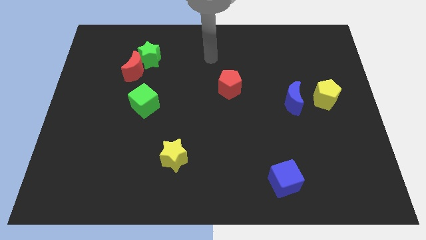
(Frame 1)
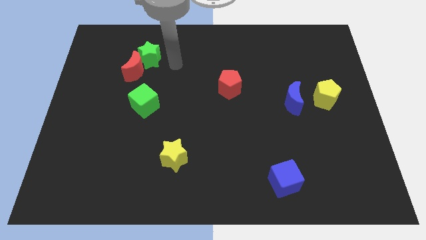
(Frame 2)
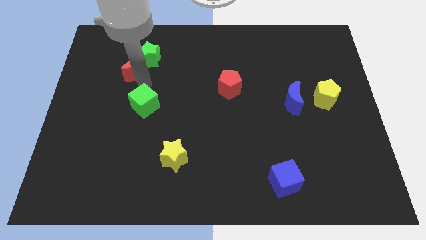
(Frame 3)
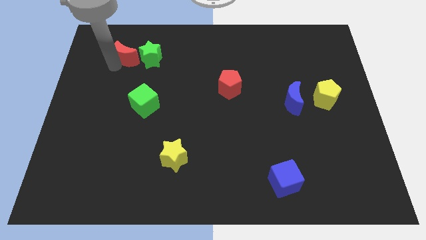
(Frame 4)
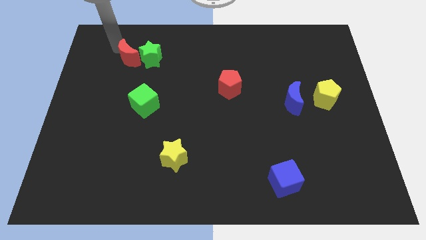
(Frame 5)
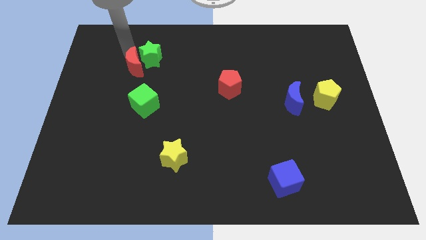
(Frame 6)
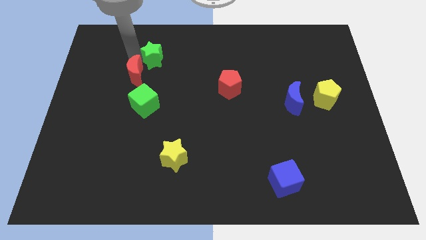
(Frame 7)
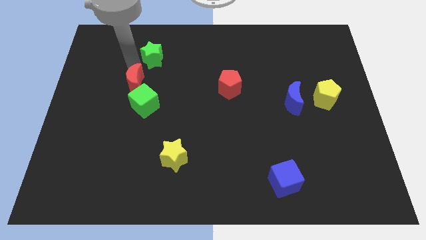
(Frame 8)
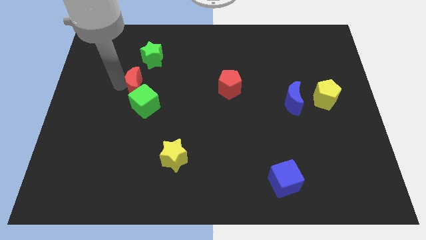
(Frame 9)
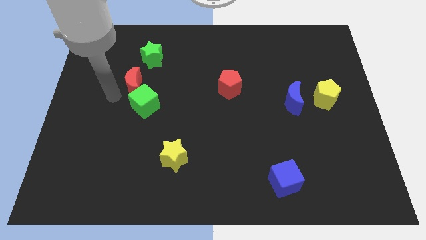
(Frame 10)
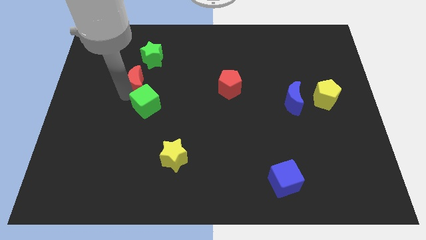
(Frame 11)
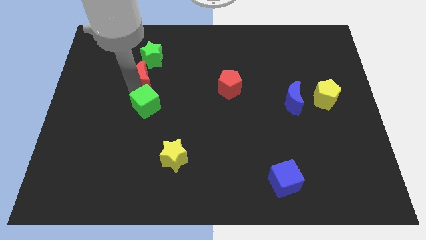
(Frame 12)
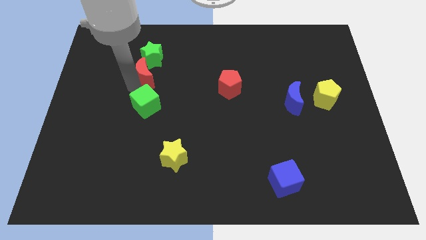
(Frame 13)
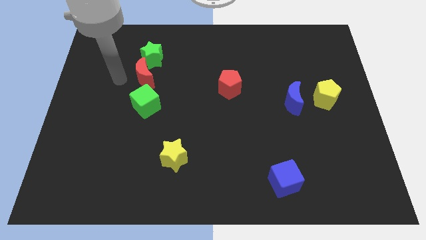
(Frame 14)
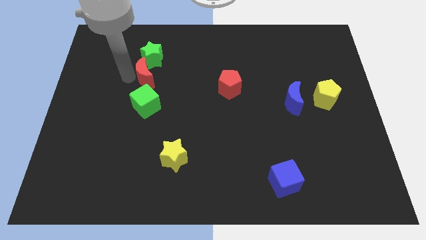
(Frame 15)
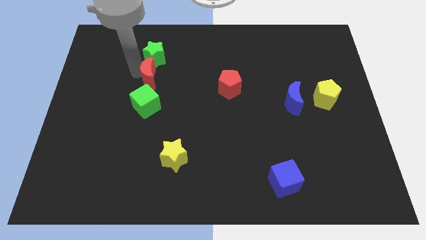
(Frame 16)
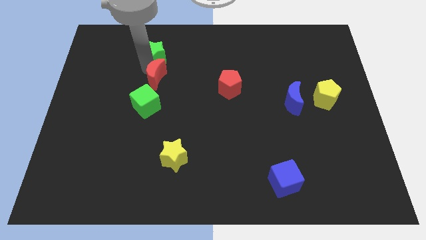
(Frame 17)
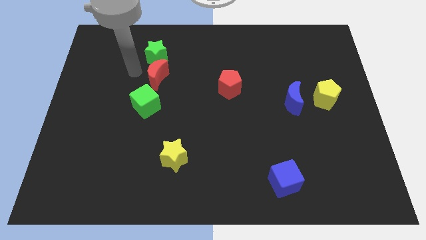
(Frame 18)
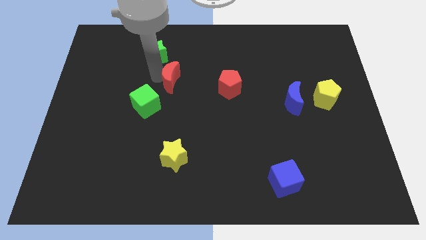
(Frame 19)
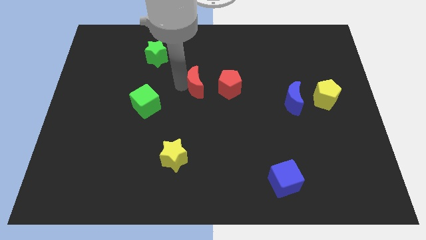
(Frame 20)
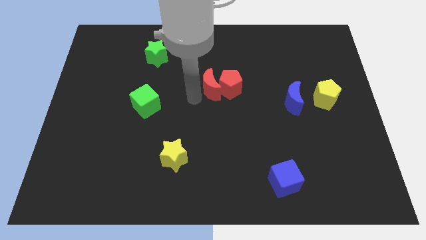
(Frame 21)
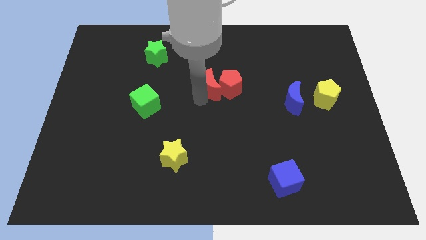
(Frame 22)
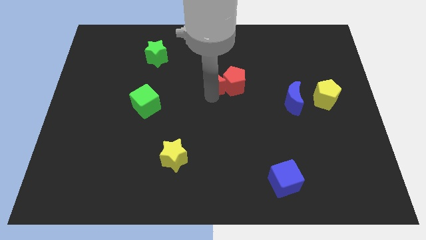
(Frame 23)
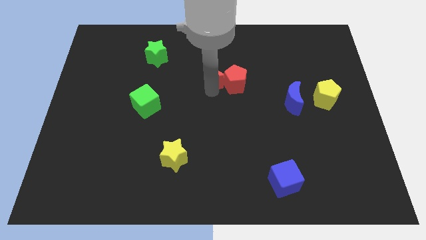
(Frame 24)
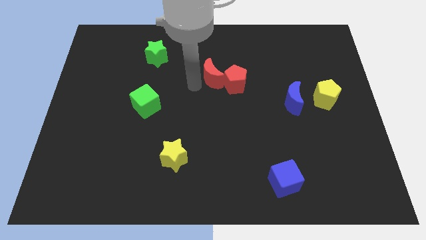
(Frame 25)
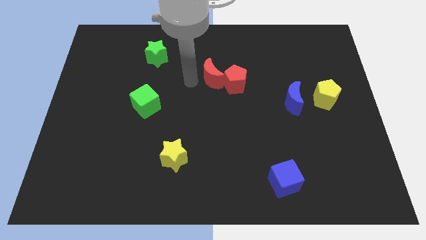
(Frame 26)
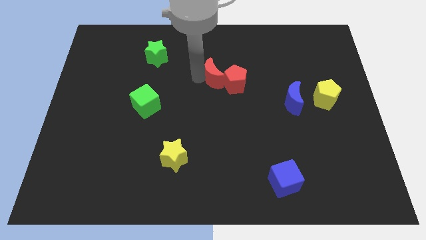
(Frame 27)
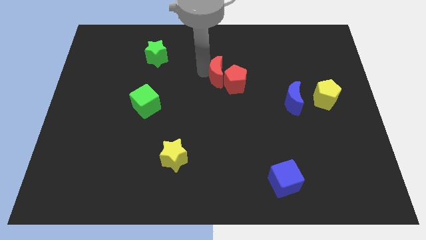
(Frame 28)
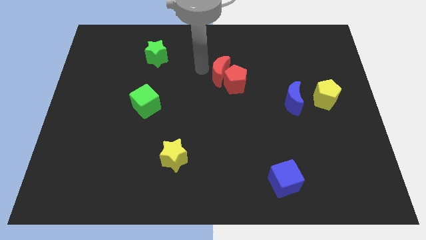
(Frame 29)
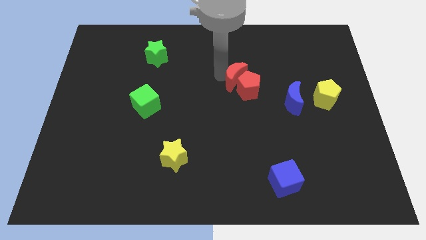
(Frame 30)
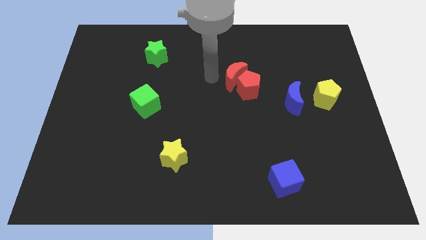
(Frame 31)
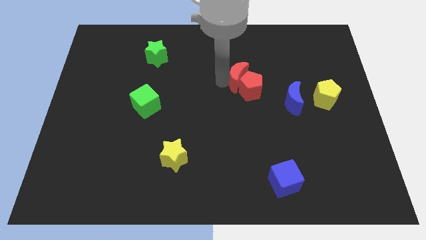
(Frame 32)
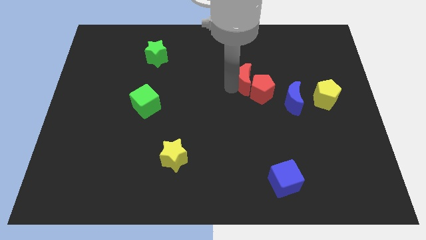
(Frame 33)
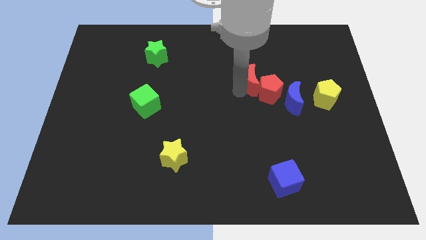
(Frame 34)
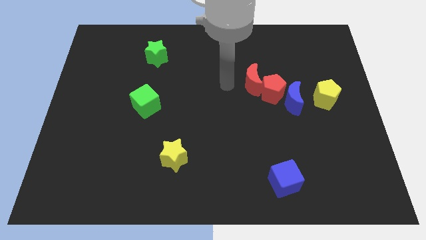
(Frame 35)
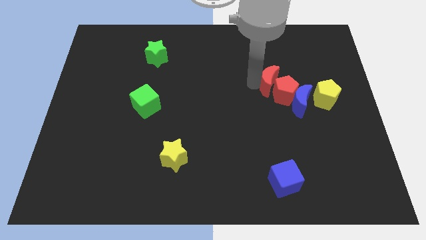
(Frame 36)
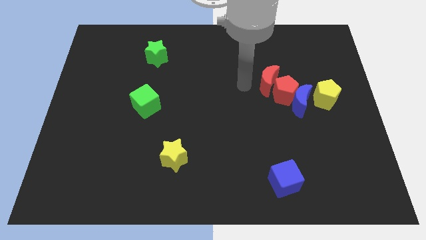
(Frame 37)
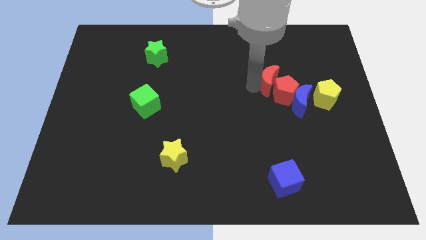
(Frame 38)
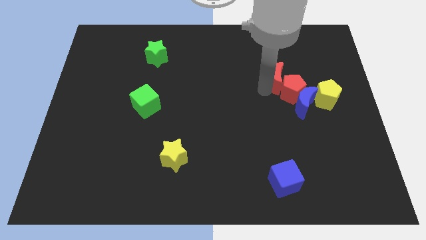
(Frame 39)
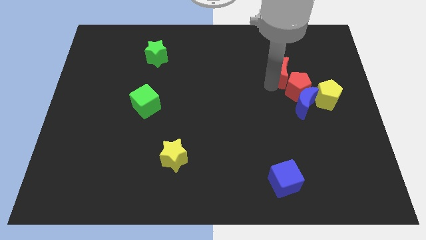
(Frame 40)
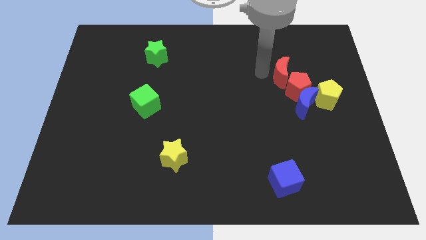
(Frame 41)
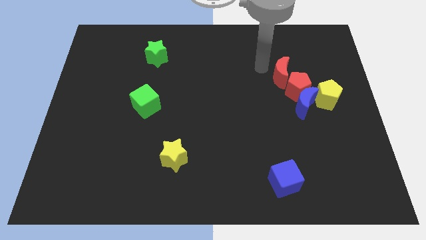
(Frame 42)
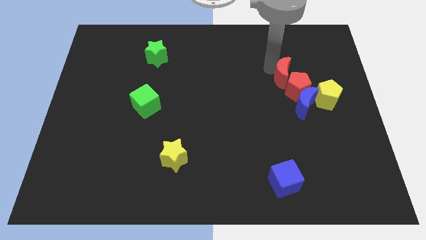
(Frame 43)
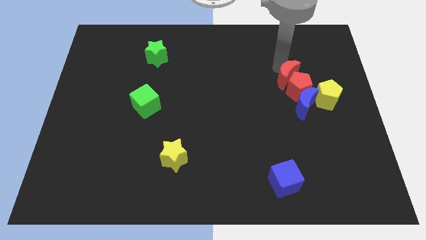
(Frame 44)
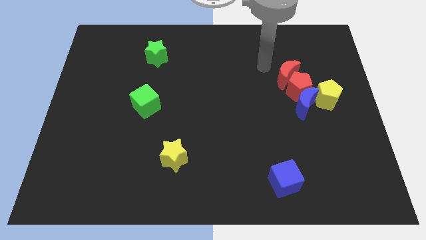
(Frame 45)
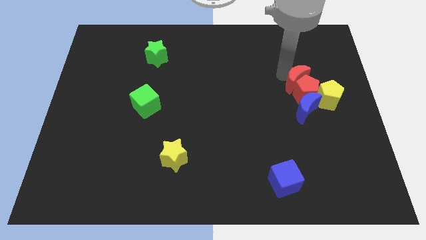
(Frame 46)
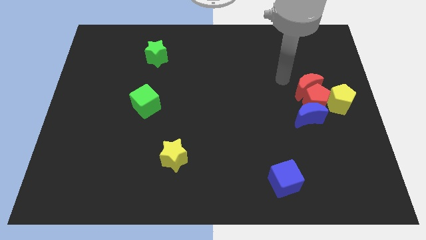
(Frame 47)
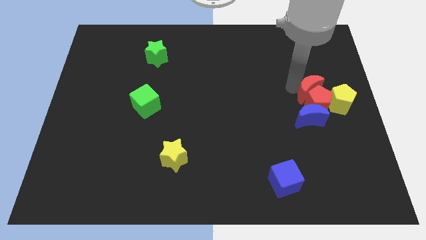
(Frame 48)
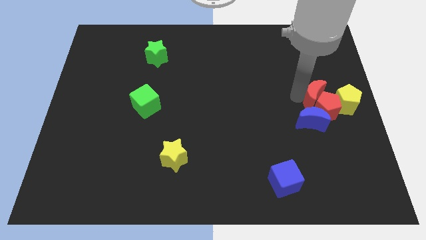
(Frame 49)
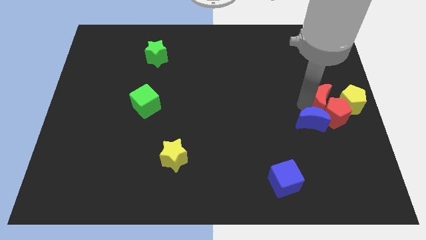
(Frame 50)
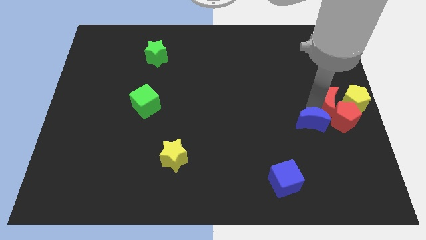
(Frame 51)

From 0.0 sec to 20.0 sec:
move the red moon next to the yellow pentagon

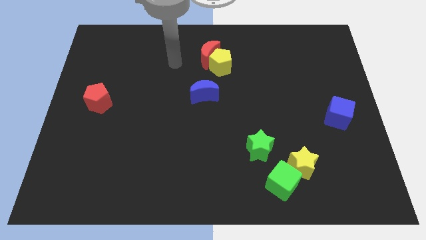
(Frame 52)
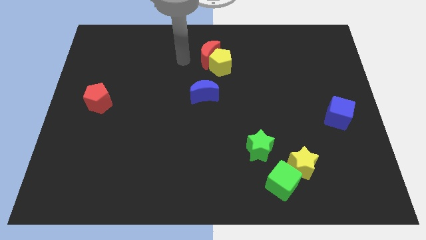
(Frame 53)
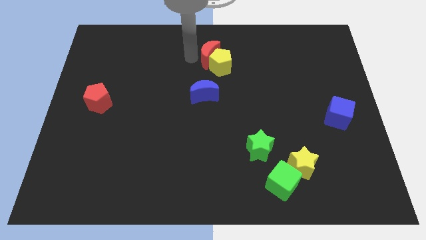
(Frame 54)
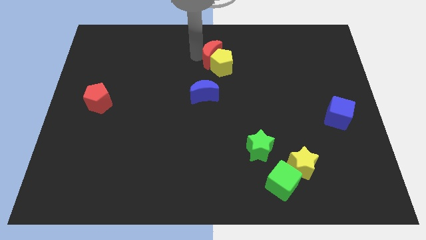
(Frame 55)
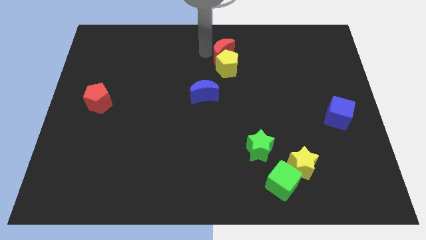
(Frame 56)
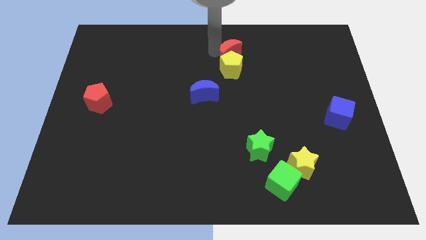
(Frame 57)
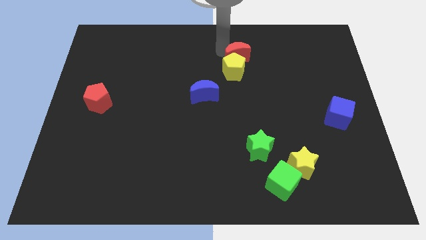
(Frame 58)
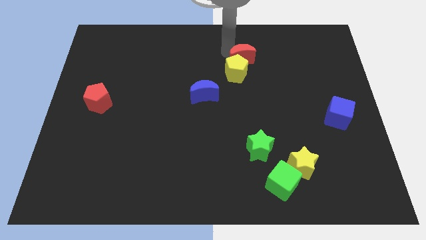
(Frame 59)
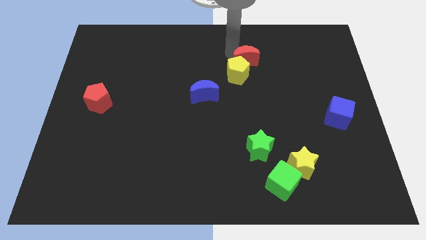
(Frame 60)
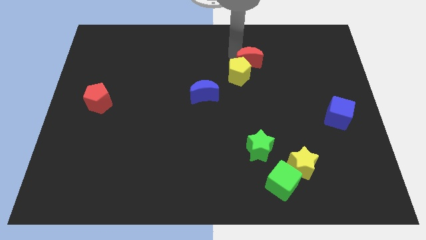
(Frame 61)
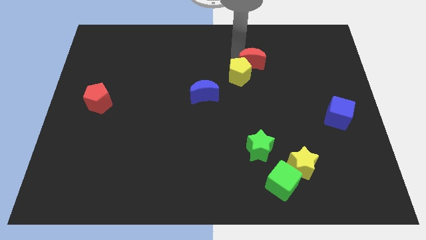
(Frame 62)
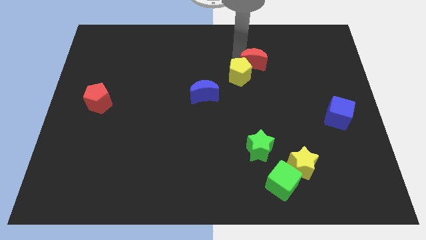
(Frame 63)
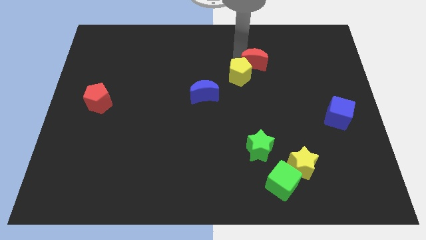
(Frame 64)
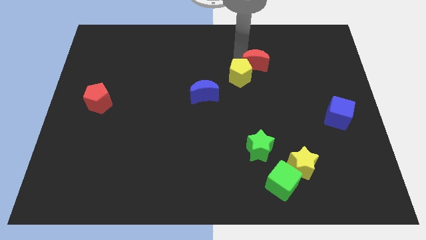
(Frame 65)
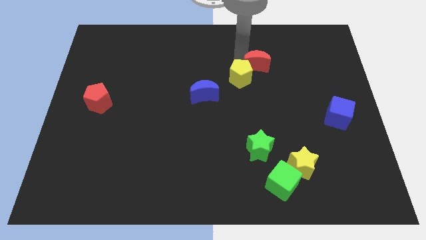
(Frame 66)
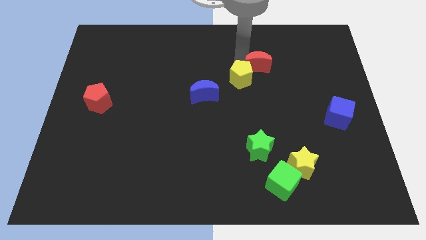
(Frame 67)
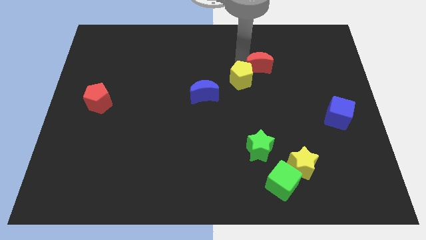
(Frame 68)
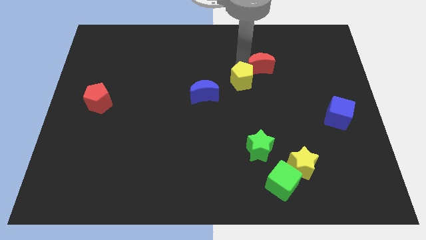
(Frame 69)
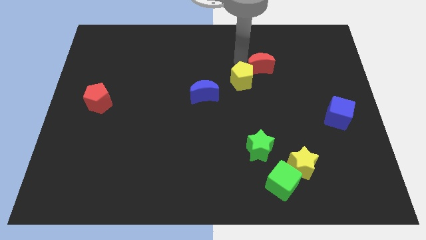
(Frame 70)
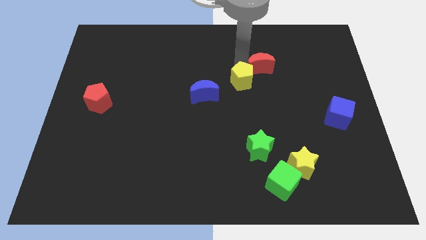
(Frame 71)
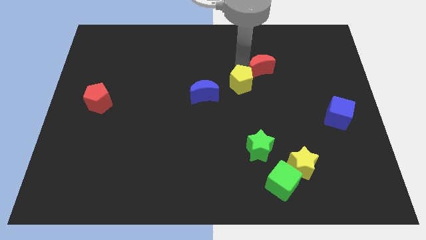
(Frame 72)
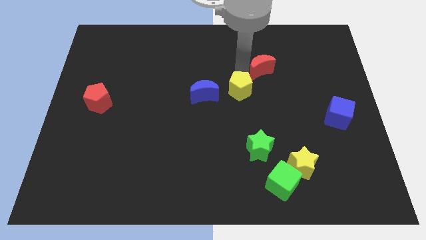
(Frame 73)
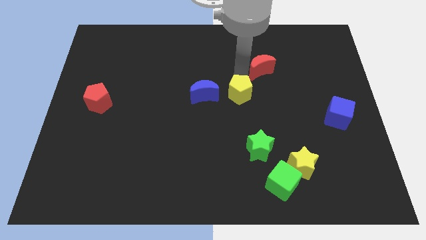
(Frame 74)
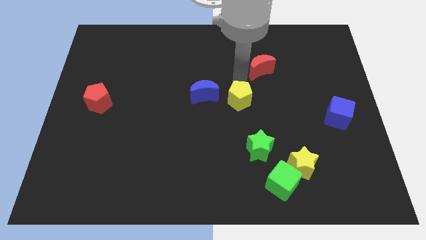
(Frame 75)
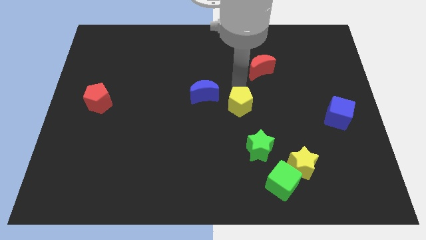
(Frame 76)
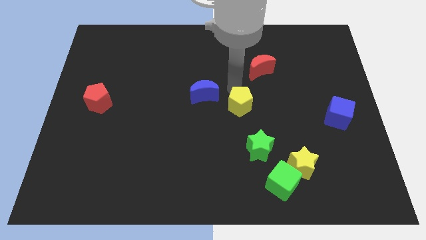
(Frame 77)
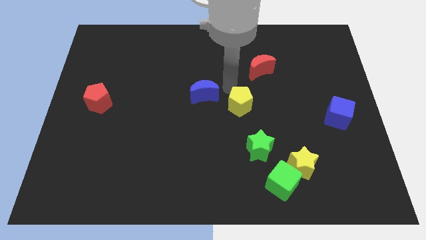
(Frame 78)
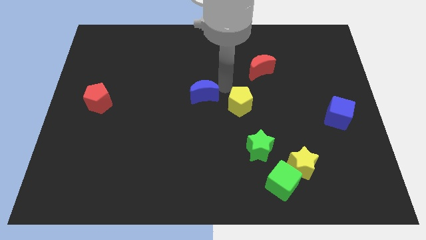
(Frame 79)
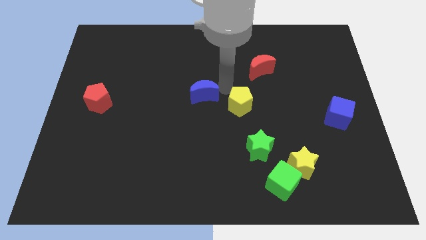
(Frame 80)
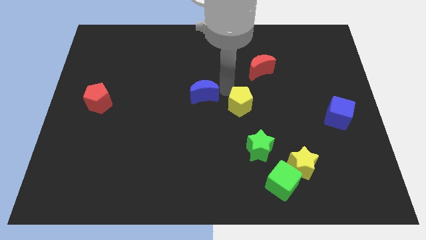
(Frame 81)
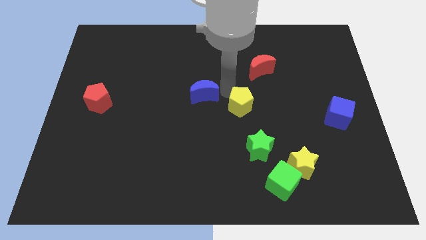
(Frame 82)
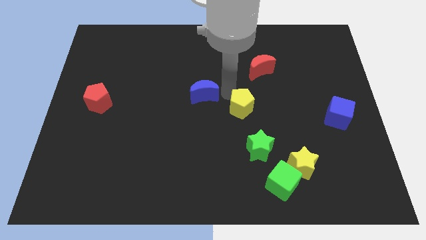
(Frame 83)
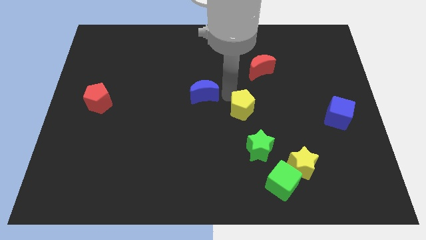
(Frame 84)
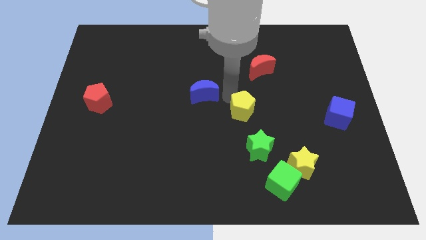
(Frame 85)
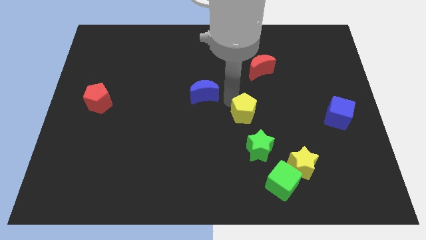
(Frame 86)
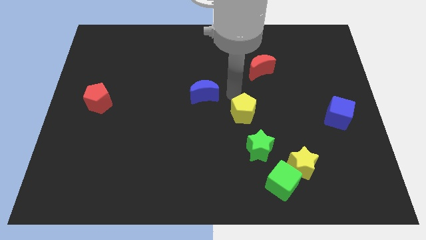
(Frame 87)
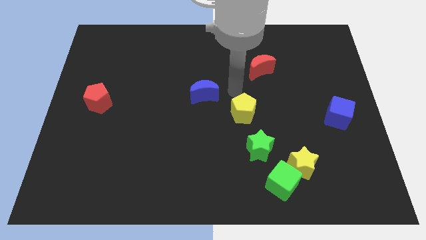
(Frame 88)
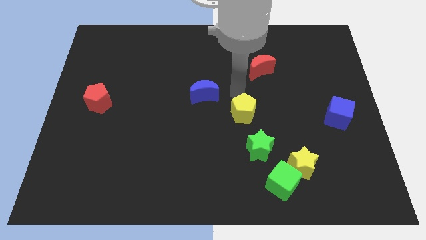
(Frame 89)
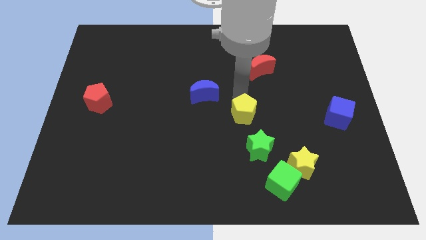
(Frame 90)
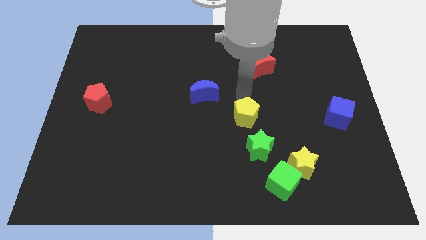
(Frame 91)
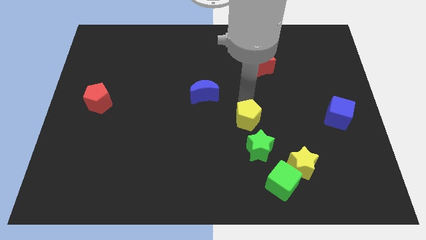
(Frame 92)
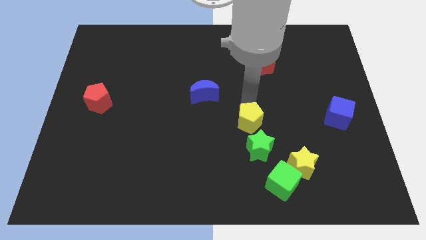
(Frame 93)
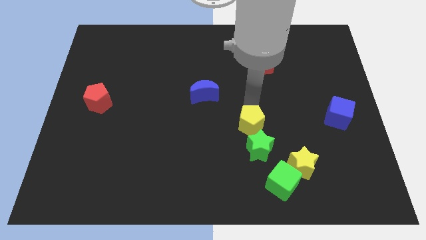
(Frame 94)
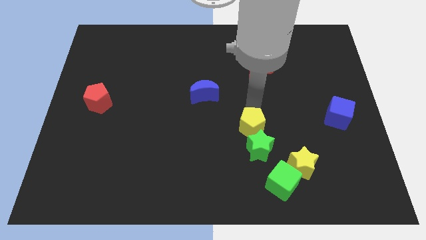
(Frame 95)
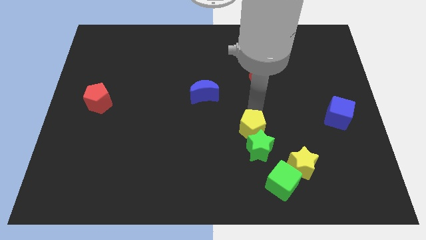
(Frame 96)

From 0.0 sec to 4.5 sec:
put the yellow pentagon to the green star
